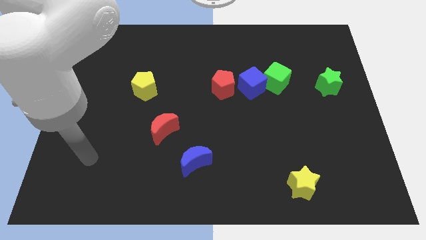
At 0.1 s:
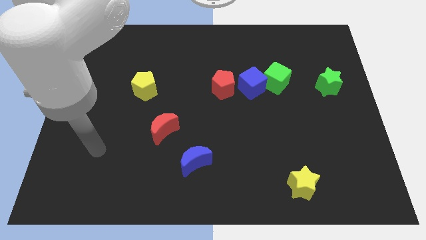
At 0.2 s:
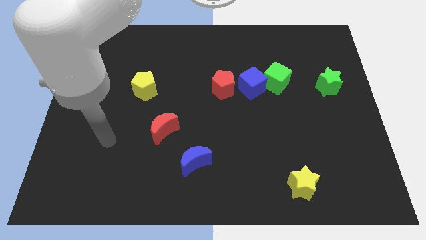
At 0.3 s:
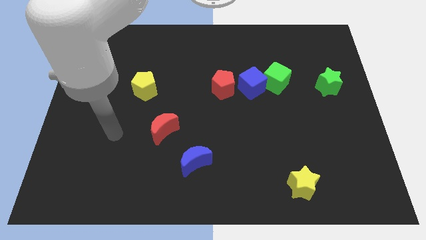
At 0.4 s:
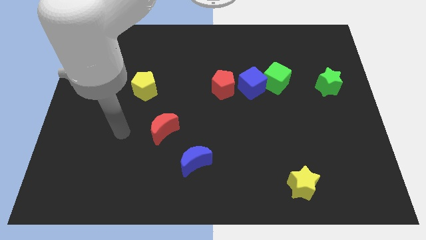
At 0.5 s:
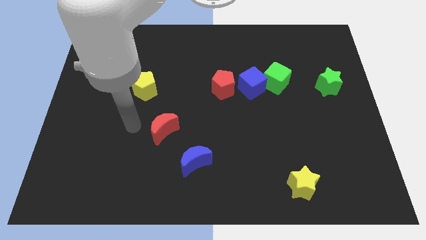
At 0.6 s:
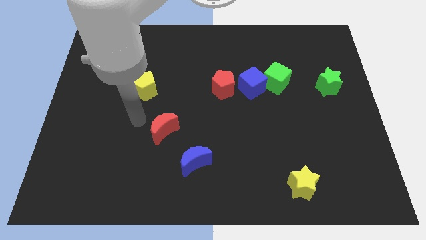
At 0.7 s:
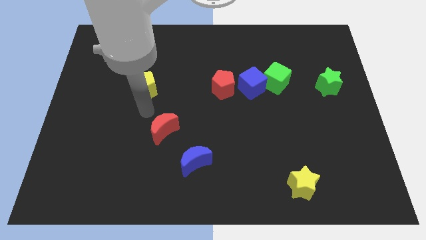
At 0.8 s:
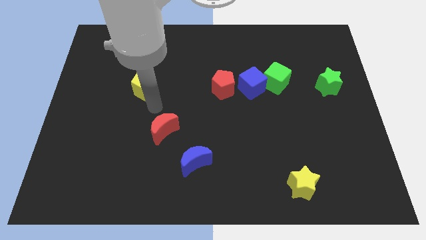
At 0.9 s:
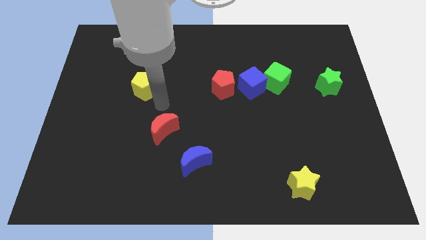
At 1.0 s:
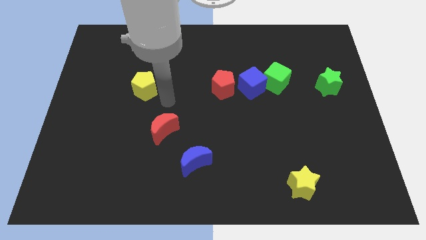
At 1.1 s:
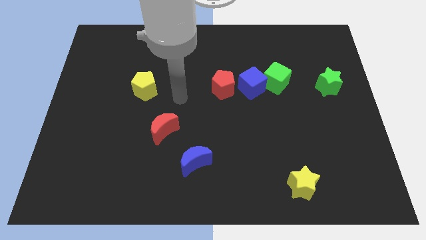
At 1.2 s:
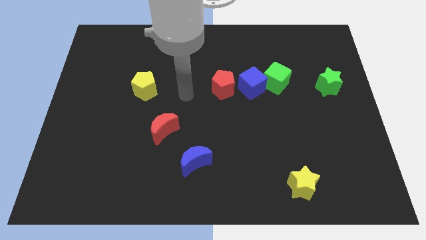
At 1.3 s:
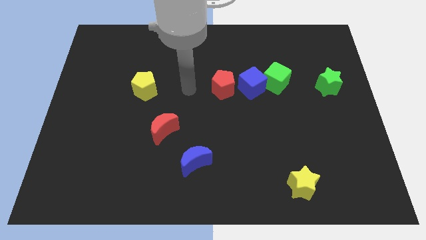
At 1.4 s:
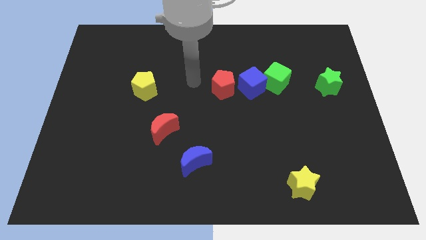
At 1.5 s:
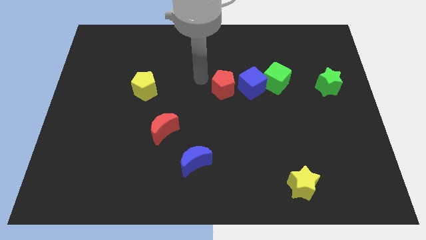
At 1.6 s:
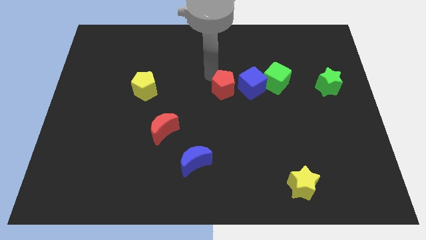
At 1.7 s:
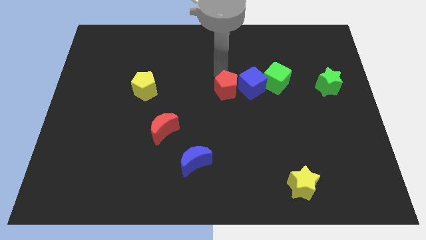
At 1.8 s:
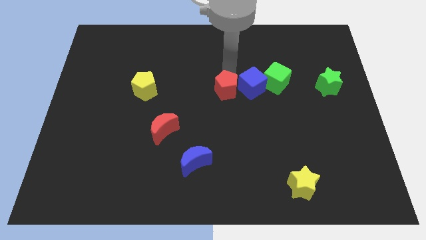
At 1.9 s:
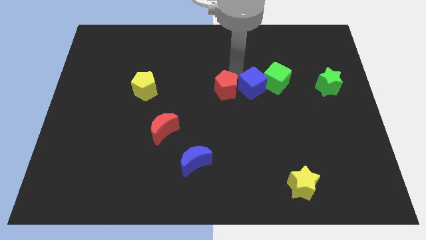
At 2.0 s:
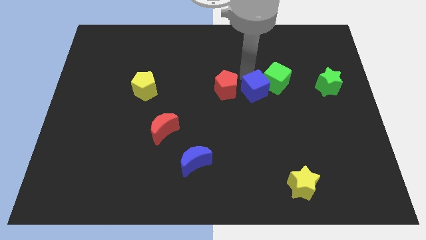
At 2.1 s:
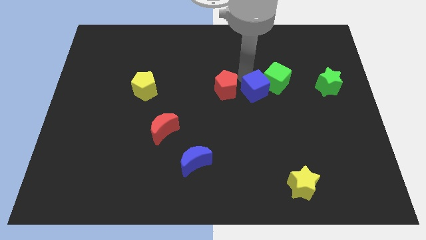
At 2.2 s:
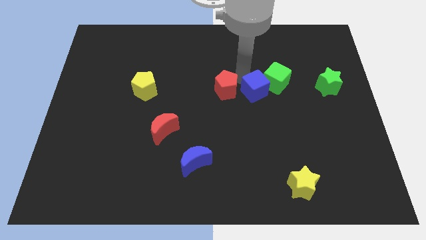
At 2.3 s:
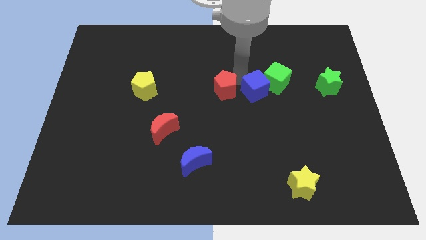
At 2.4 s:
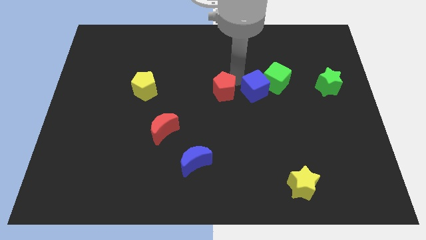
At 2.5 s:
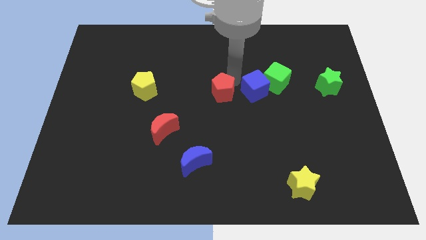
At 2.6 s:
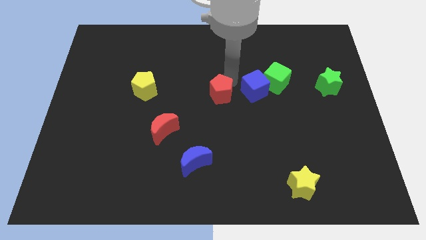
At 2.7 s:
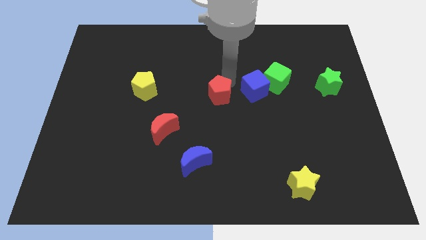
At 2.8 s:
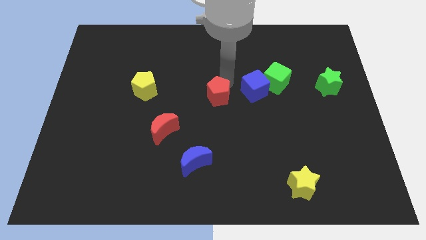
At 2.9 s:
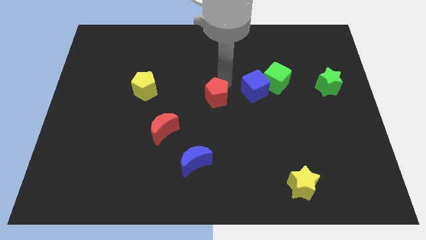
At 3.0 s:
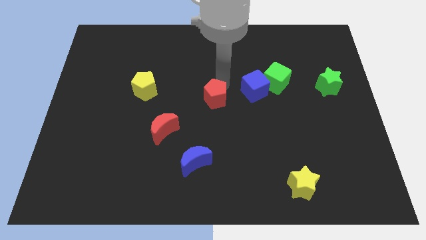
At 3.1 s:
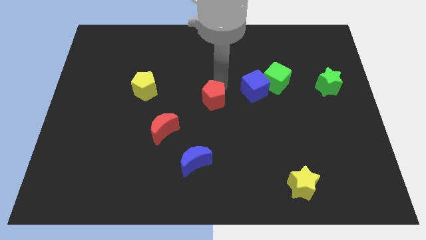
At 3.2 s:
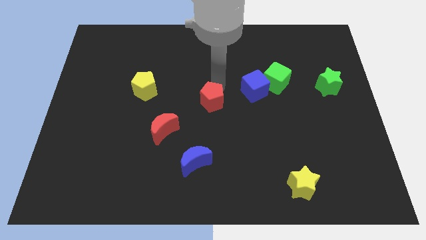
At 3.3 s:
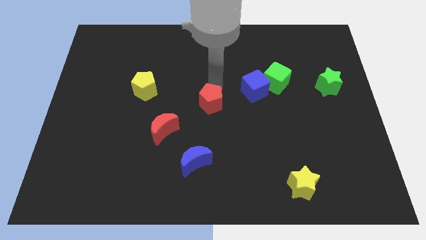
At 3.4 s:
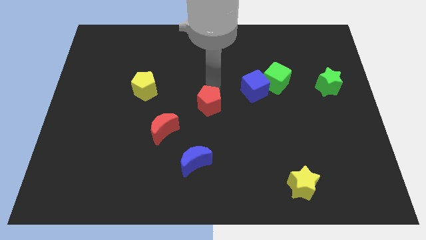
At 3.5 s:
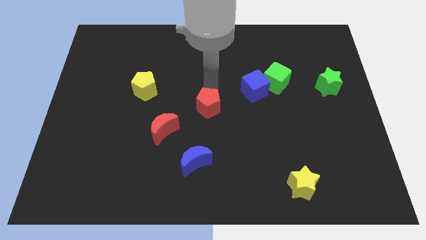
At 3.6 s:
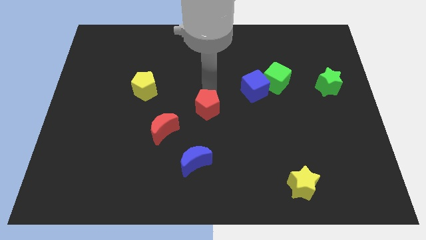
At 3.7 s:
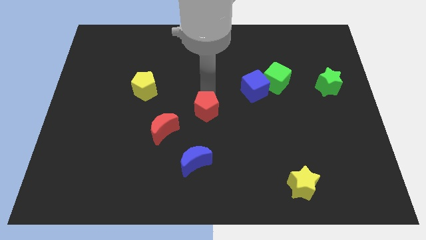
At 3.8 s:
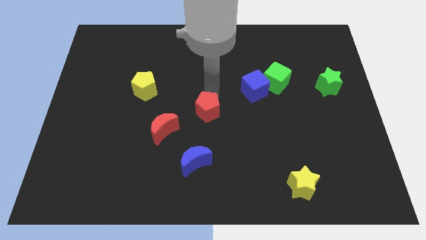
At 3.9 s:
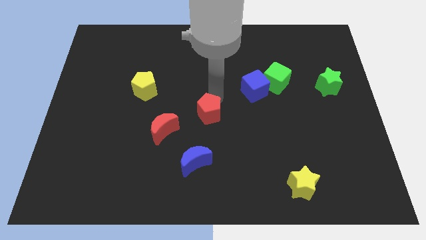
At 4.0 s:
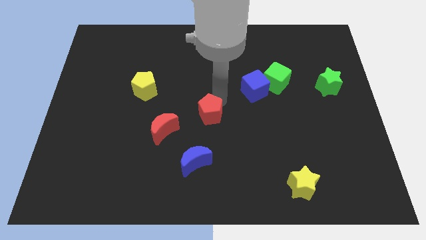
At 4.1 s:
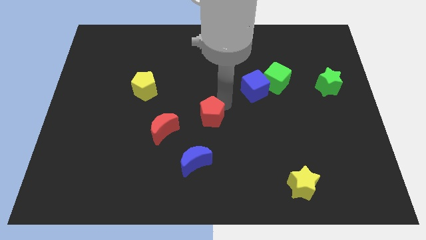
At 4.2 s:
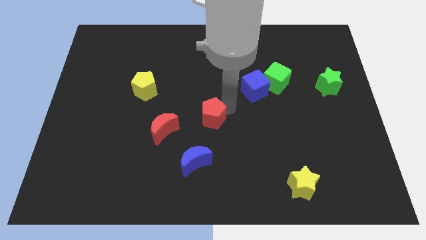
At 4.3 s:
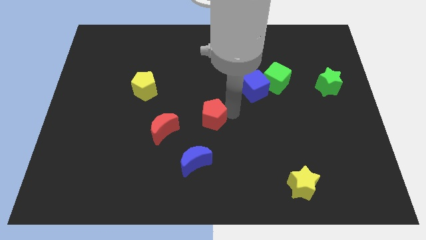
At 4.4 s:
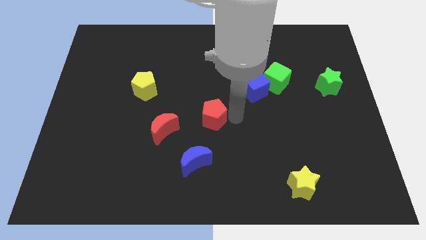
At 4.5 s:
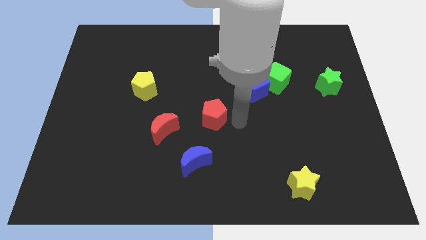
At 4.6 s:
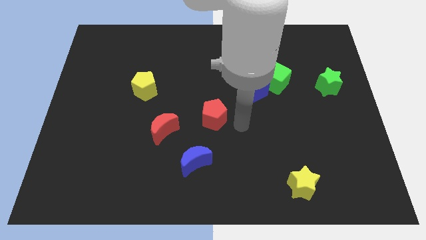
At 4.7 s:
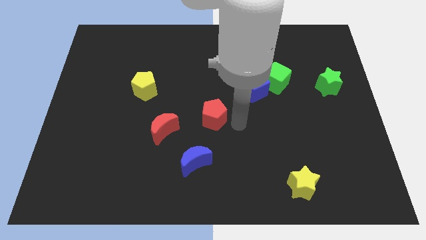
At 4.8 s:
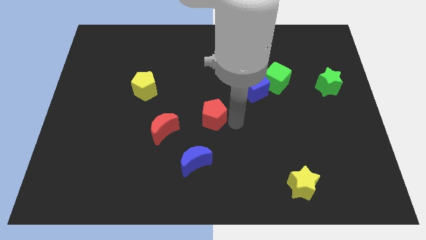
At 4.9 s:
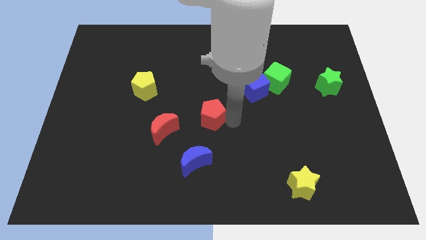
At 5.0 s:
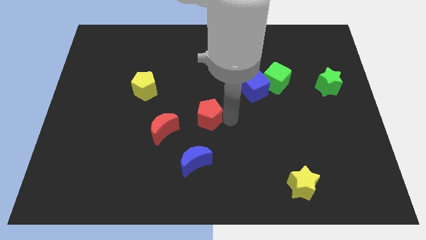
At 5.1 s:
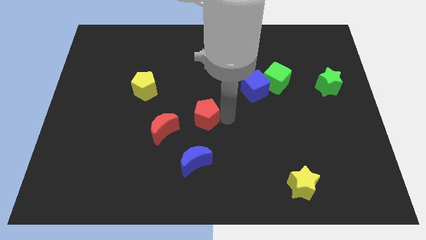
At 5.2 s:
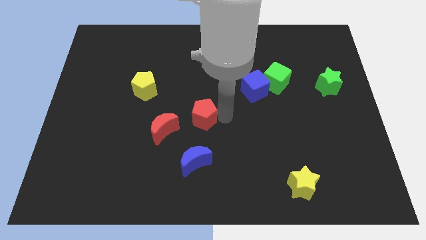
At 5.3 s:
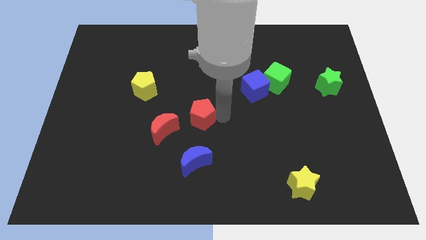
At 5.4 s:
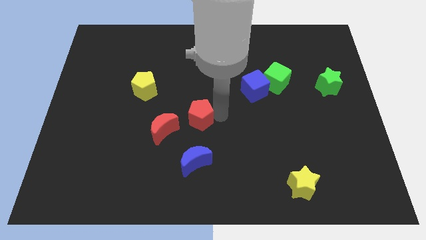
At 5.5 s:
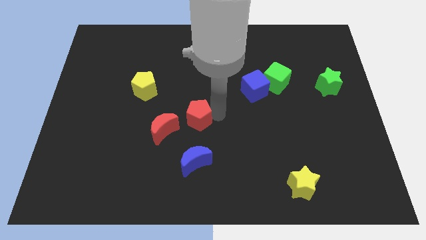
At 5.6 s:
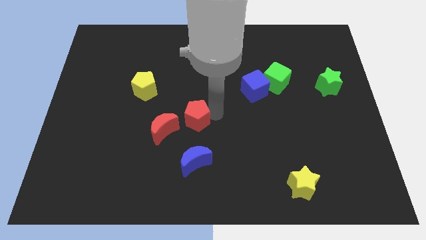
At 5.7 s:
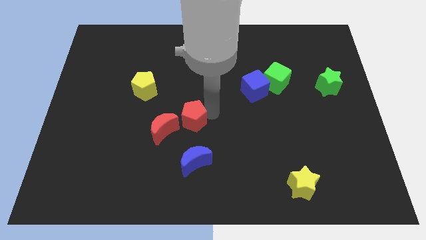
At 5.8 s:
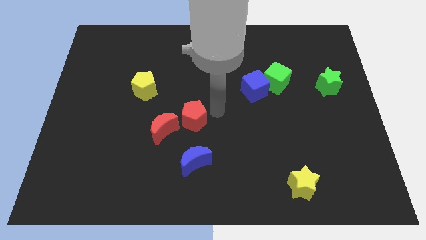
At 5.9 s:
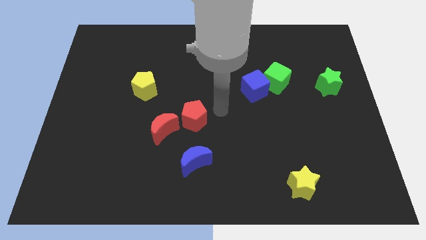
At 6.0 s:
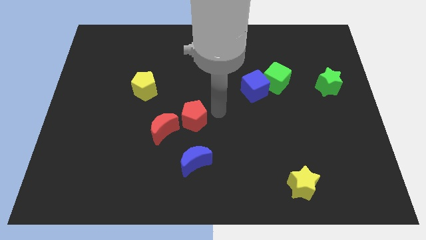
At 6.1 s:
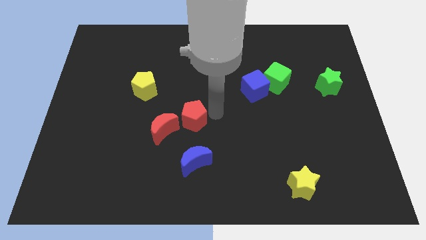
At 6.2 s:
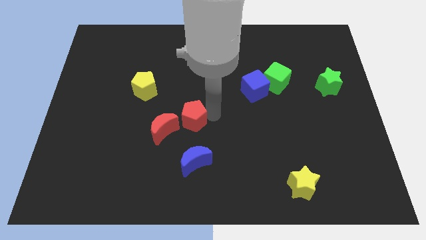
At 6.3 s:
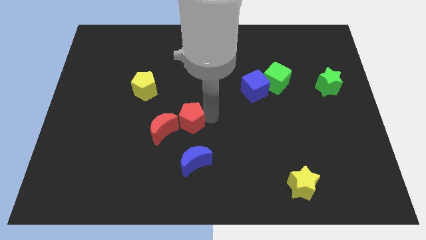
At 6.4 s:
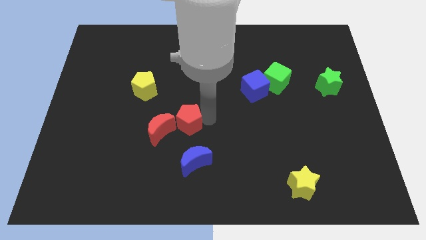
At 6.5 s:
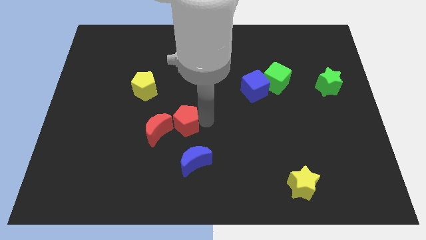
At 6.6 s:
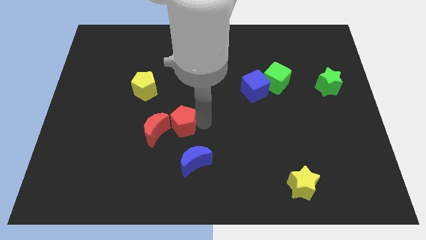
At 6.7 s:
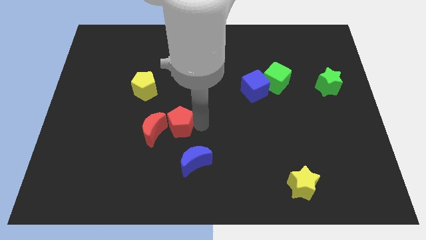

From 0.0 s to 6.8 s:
slide the red pentagon to the red moon
